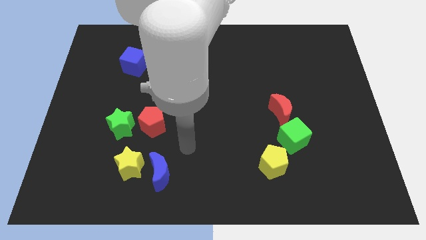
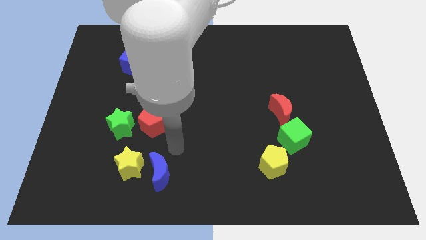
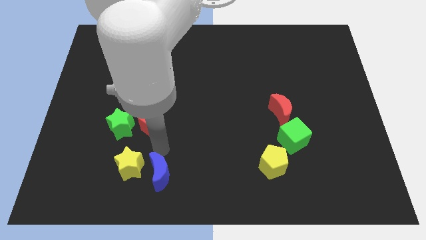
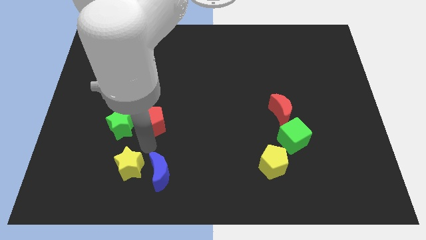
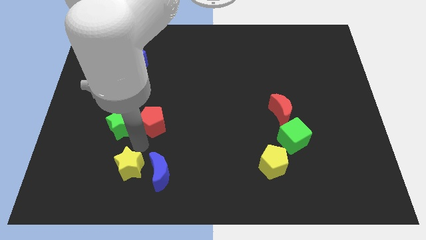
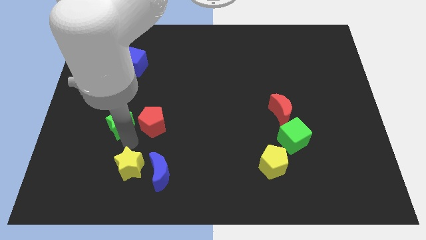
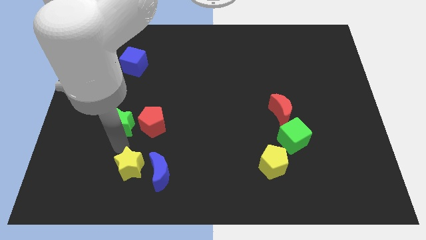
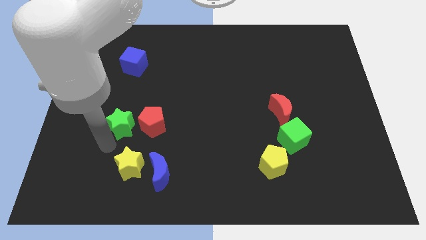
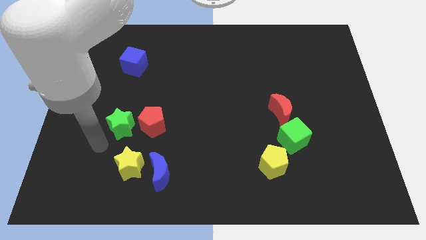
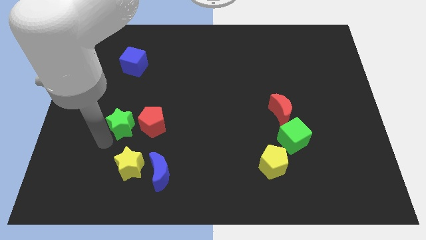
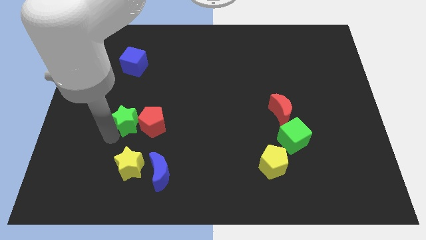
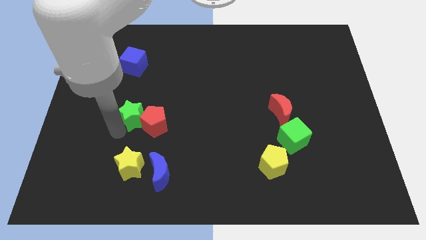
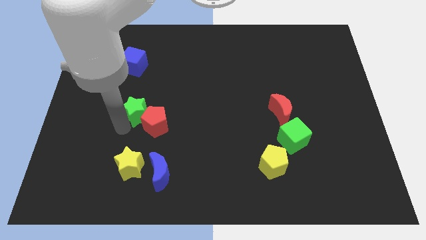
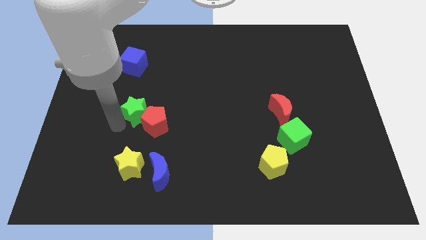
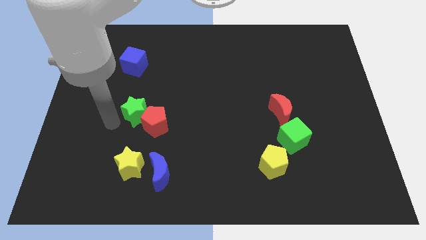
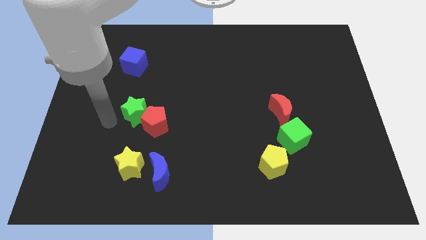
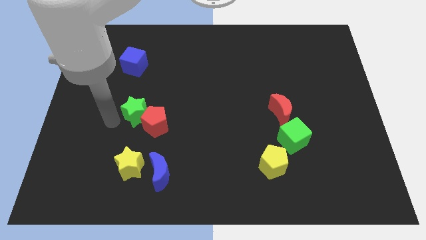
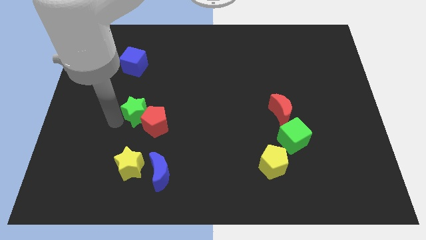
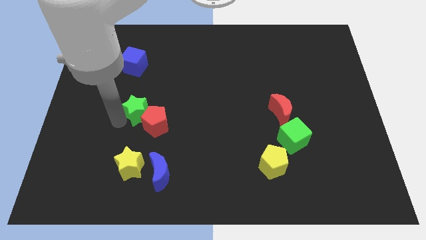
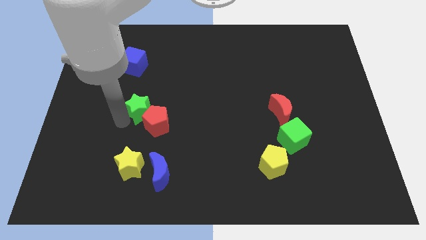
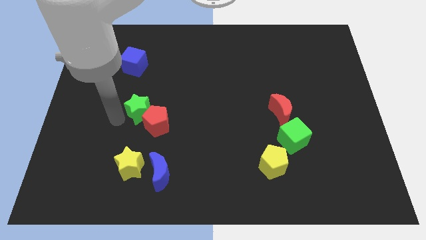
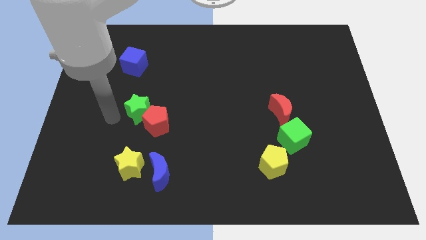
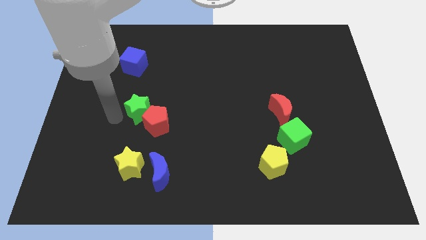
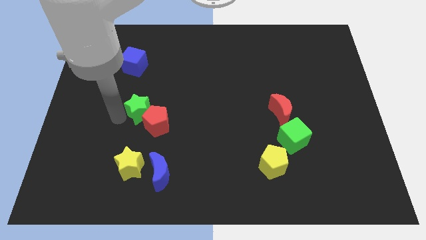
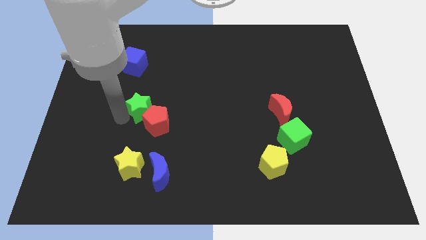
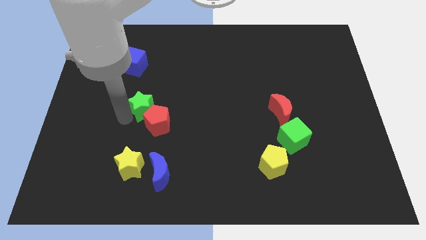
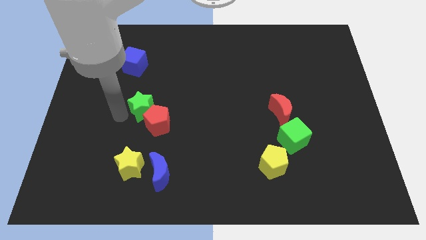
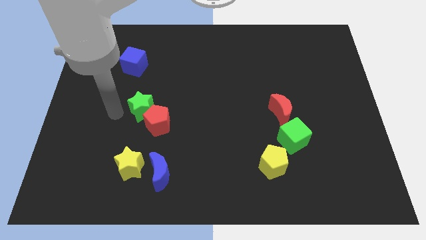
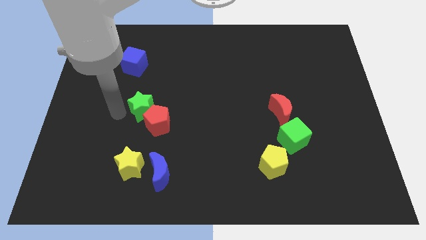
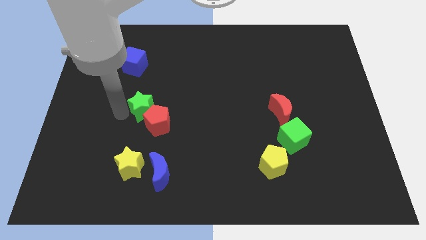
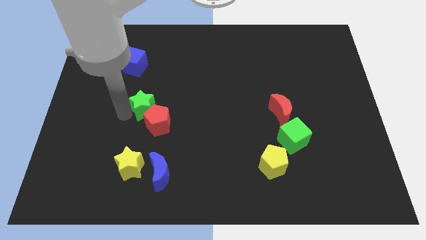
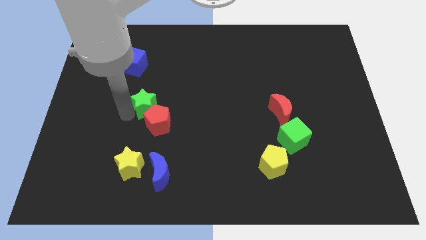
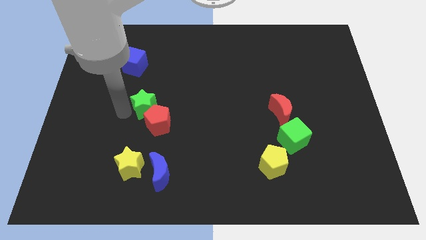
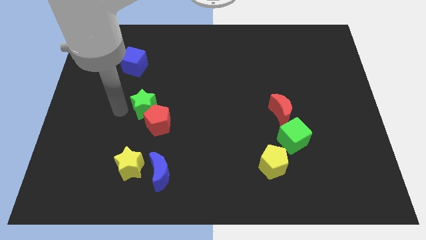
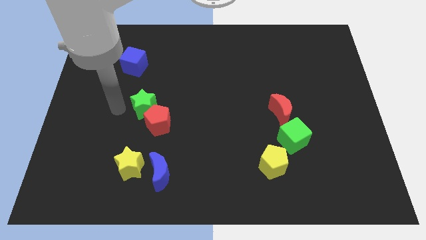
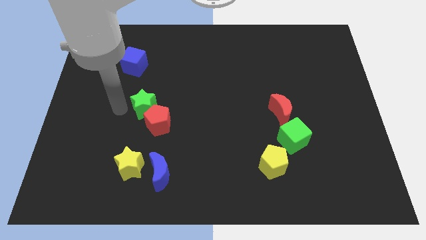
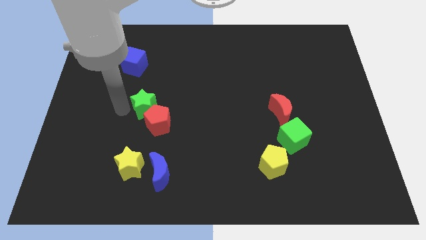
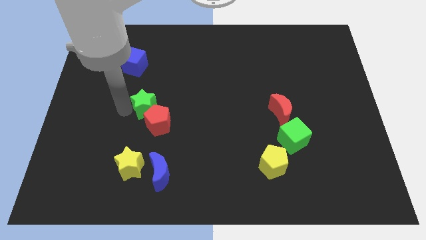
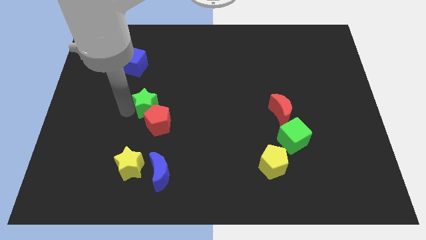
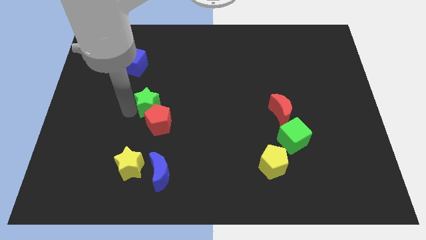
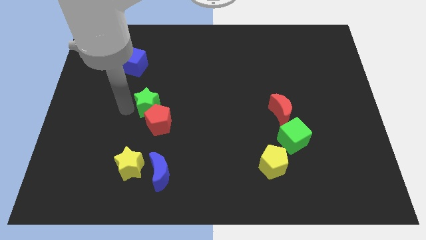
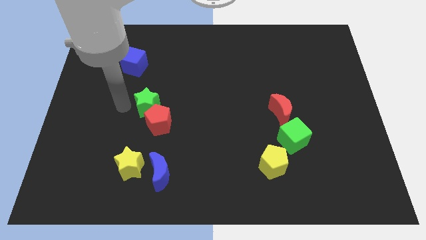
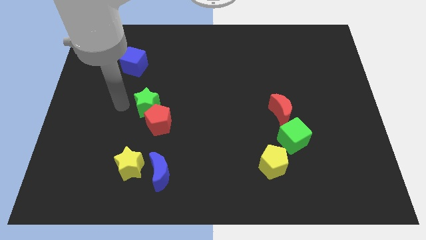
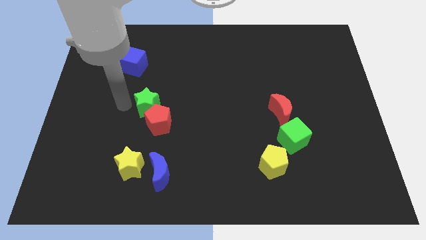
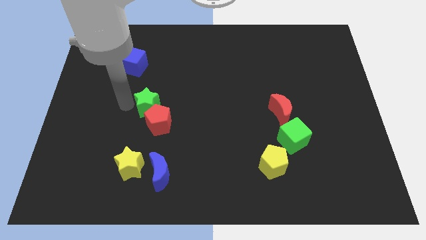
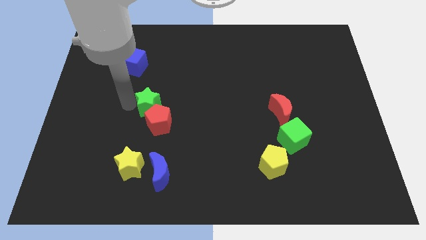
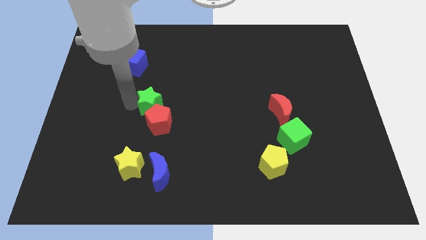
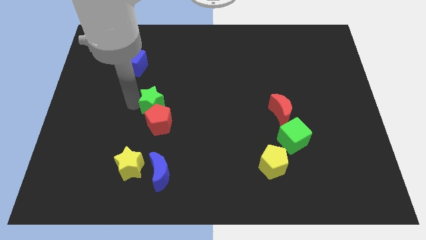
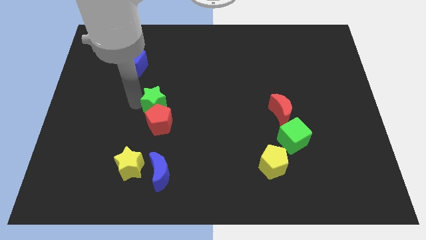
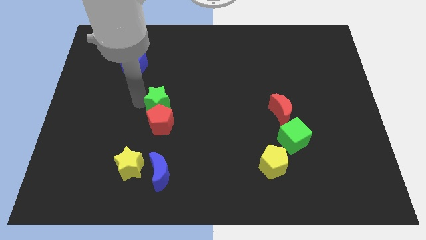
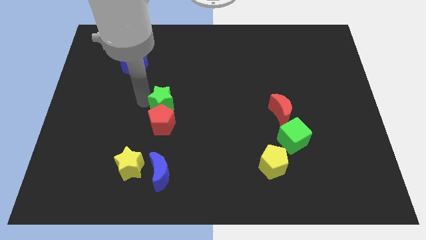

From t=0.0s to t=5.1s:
slide the green star to the center of the board
